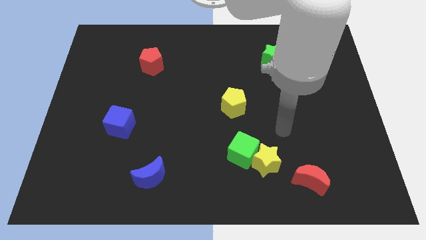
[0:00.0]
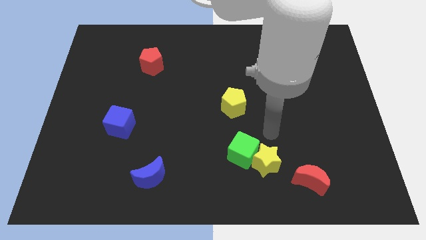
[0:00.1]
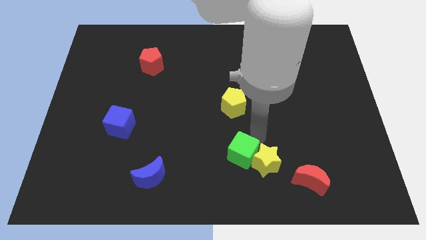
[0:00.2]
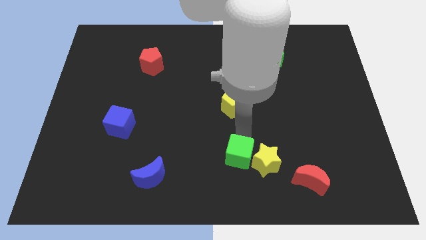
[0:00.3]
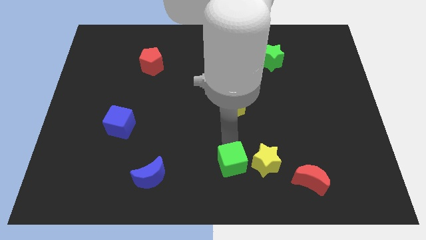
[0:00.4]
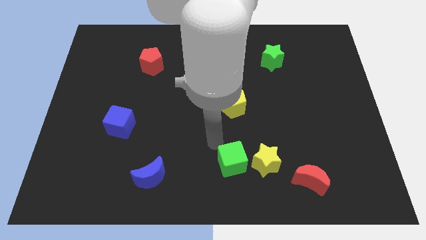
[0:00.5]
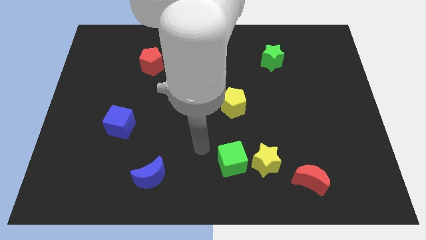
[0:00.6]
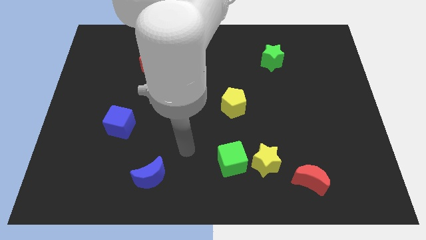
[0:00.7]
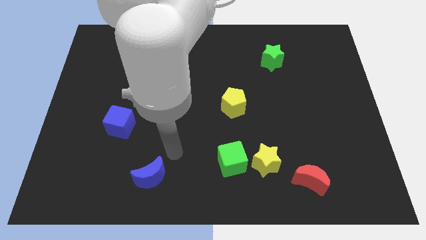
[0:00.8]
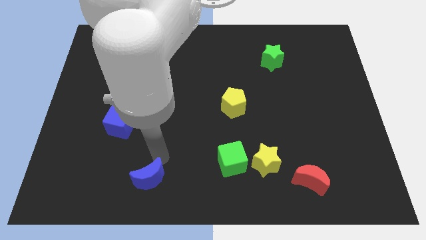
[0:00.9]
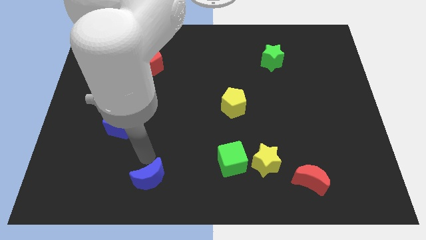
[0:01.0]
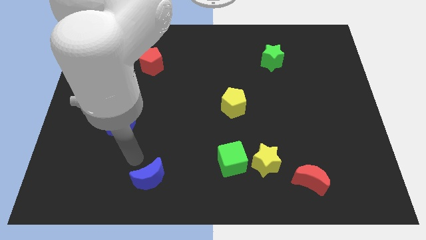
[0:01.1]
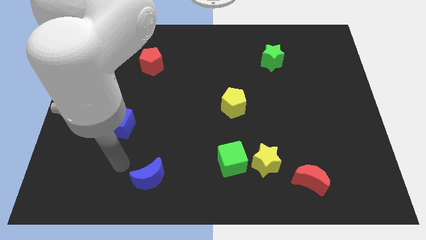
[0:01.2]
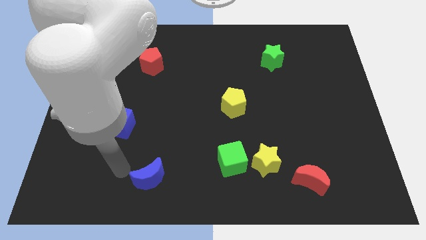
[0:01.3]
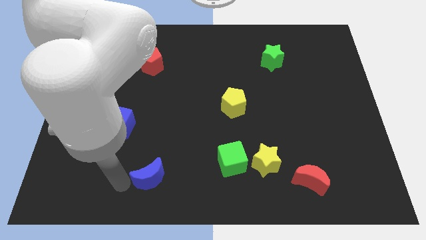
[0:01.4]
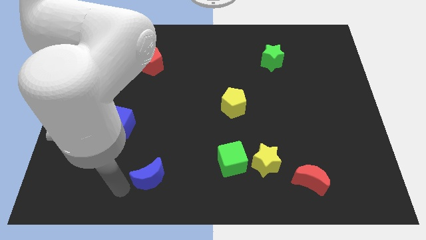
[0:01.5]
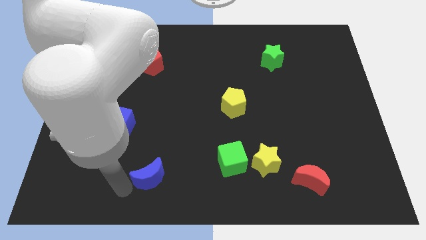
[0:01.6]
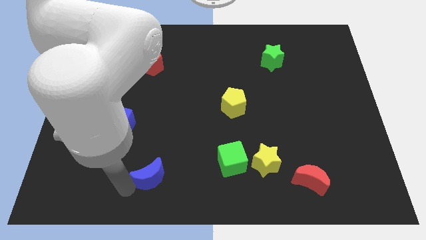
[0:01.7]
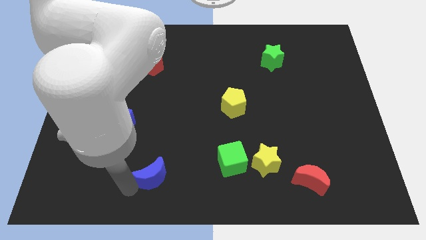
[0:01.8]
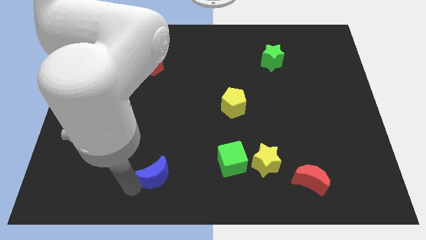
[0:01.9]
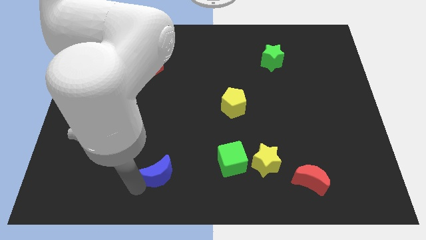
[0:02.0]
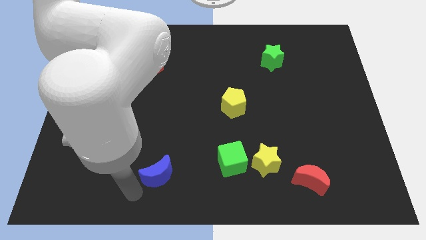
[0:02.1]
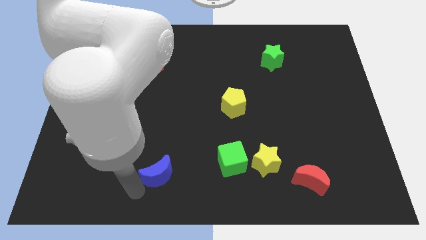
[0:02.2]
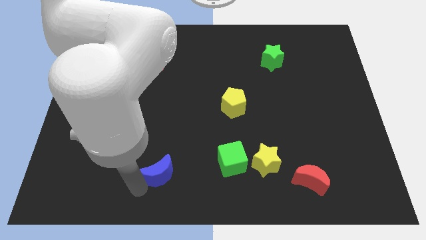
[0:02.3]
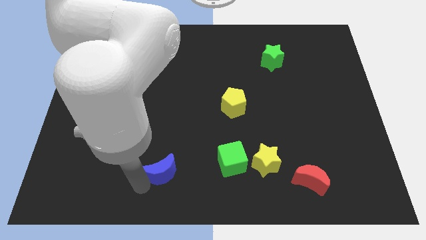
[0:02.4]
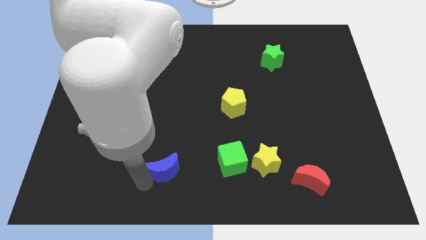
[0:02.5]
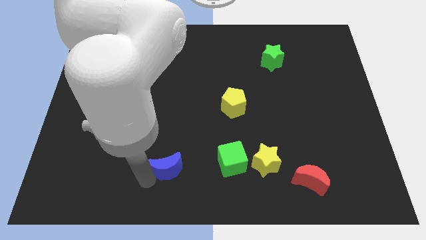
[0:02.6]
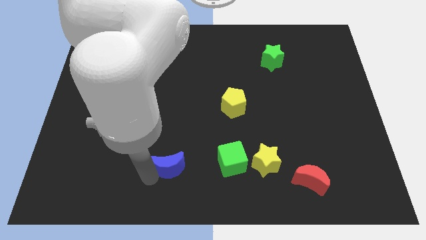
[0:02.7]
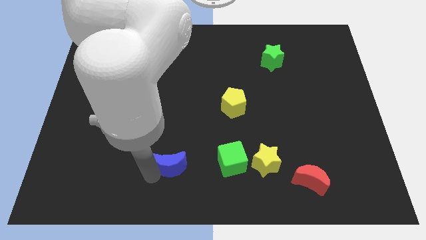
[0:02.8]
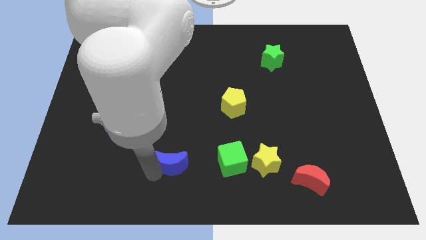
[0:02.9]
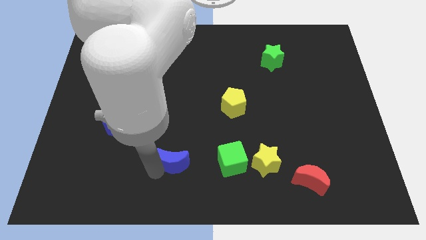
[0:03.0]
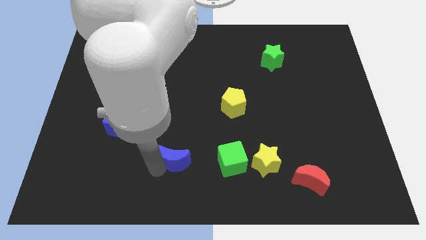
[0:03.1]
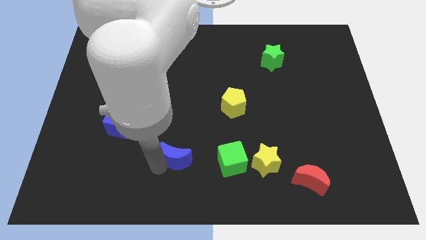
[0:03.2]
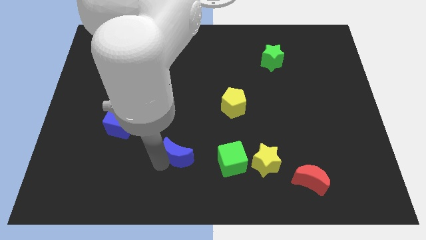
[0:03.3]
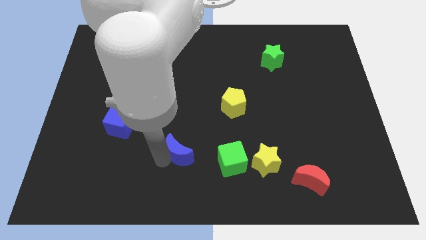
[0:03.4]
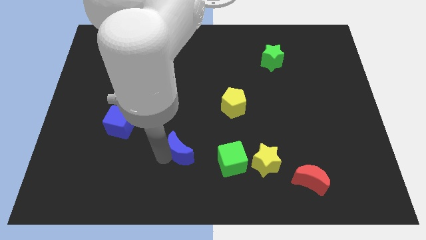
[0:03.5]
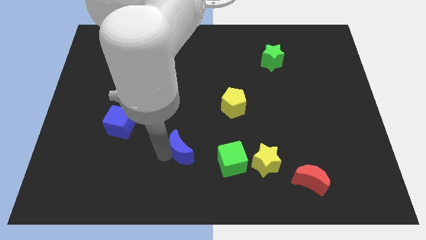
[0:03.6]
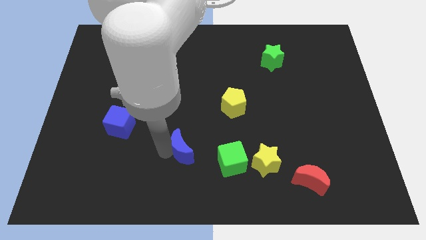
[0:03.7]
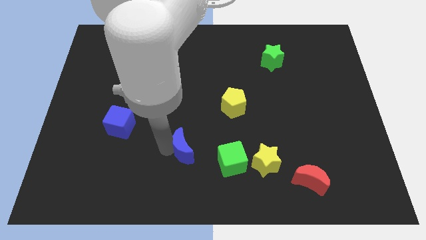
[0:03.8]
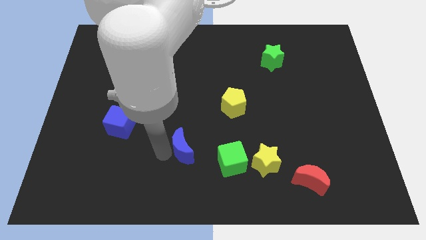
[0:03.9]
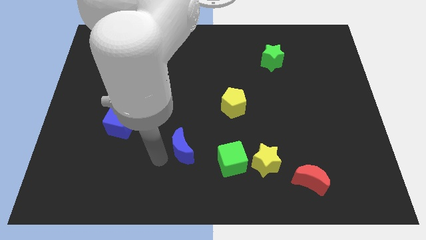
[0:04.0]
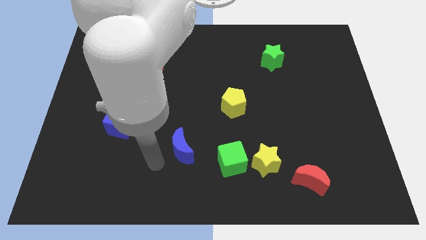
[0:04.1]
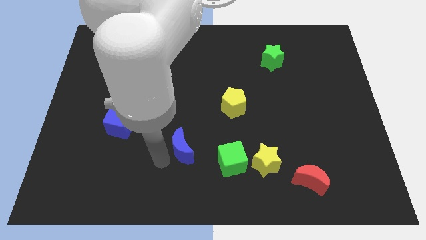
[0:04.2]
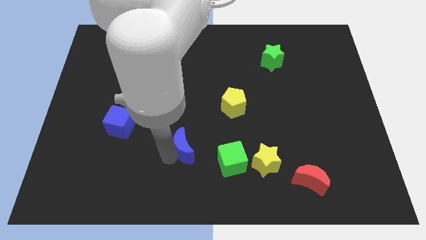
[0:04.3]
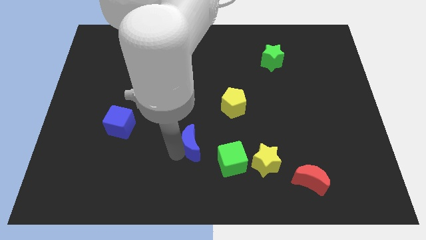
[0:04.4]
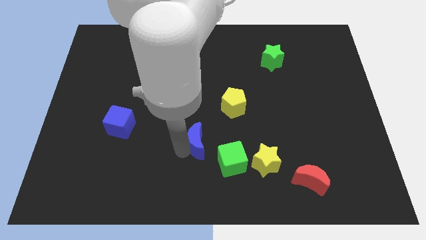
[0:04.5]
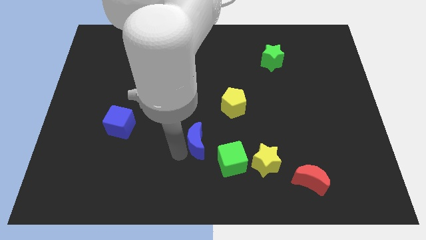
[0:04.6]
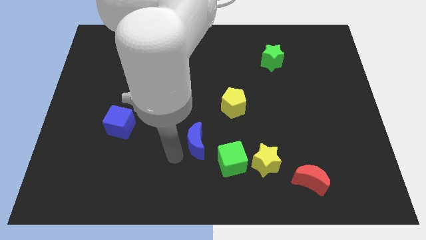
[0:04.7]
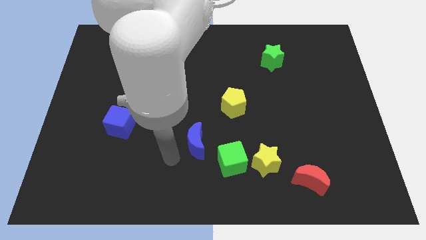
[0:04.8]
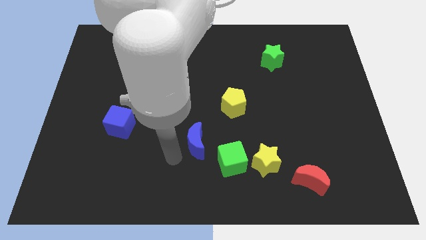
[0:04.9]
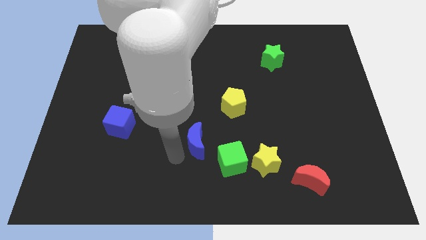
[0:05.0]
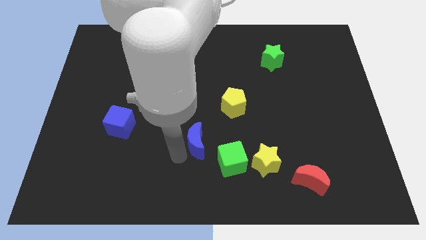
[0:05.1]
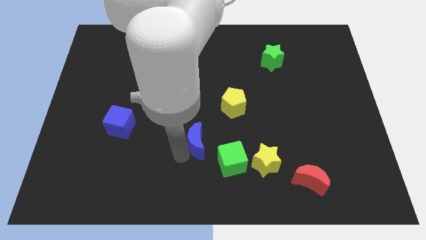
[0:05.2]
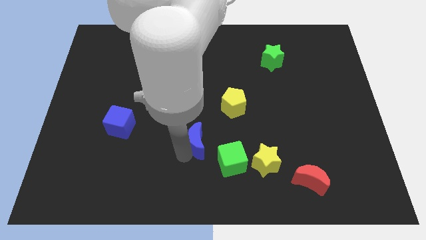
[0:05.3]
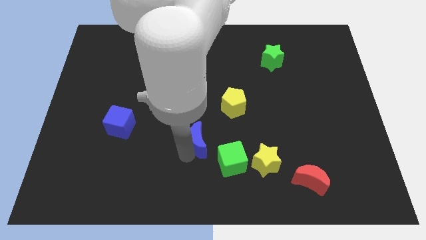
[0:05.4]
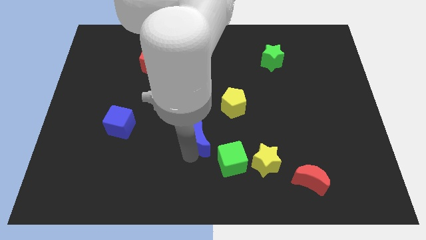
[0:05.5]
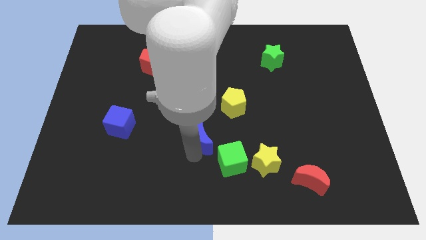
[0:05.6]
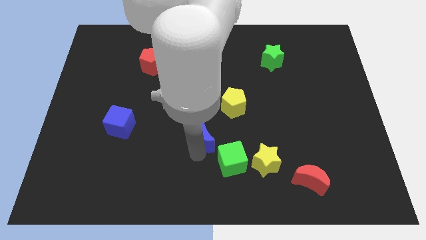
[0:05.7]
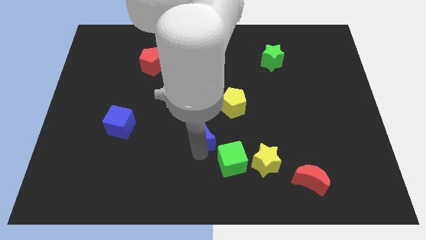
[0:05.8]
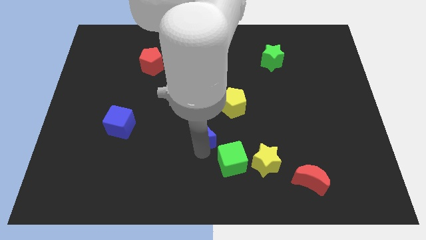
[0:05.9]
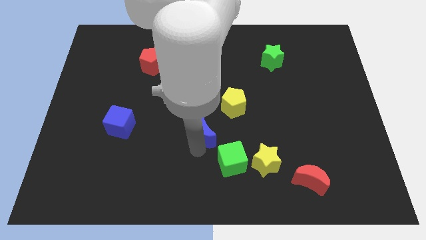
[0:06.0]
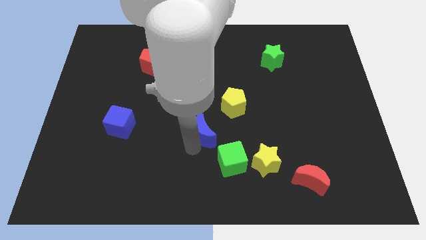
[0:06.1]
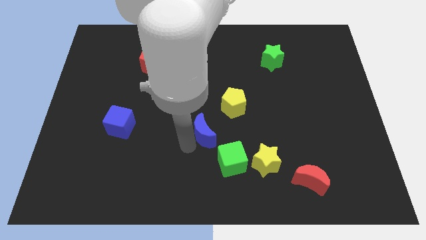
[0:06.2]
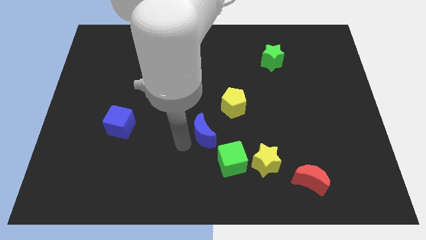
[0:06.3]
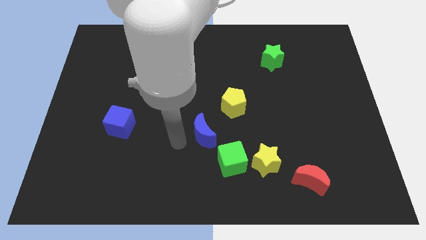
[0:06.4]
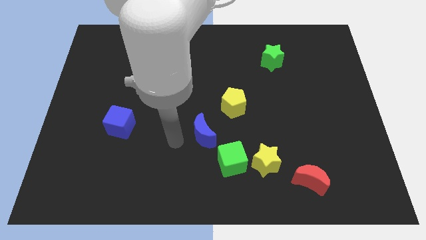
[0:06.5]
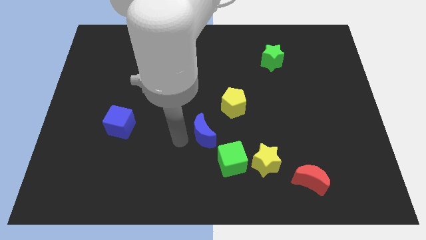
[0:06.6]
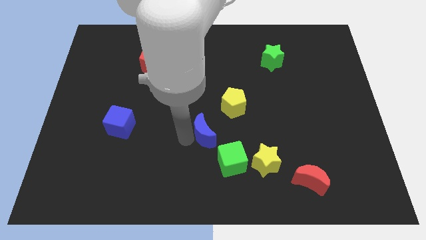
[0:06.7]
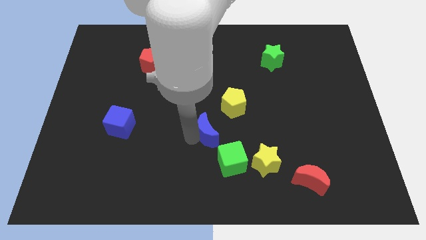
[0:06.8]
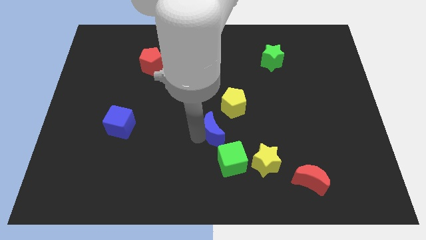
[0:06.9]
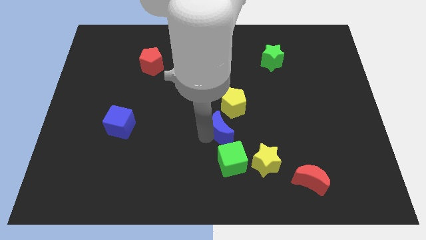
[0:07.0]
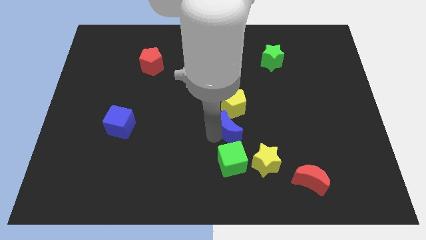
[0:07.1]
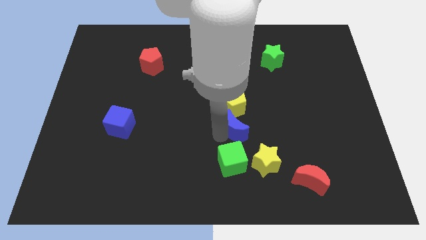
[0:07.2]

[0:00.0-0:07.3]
move the blue moon diagonally upwards and right

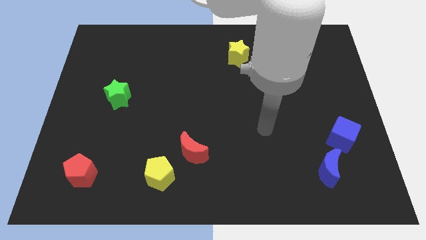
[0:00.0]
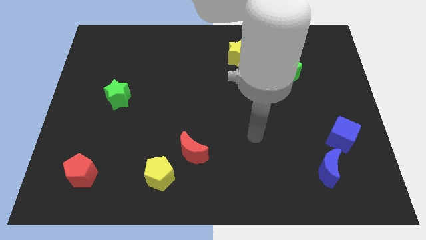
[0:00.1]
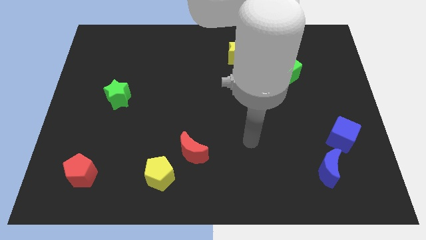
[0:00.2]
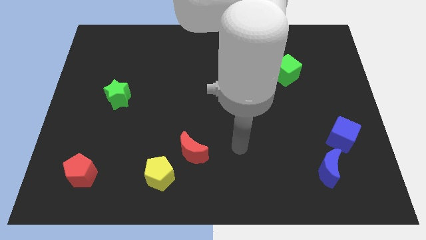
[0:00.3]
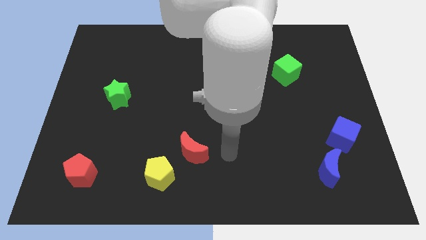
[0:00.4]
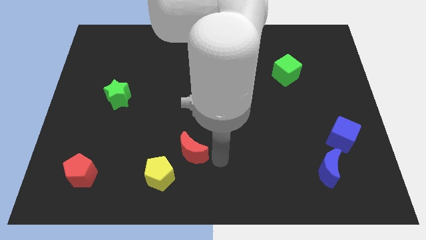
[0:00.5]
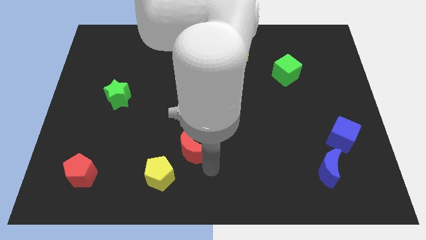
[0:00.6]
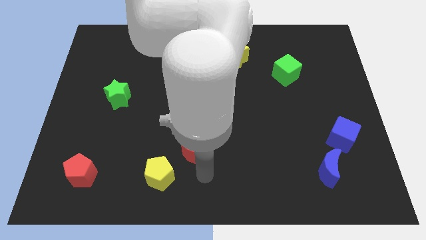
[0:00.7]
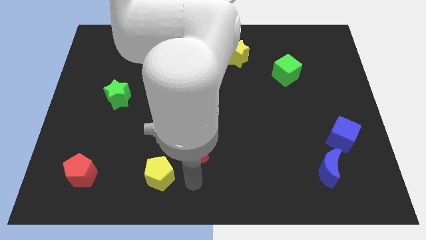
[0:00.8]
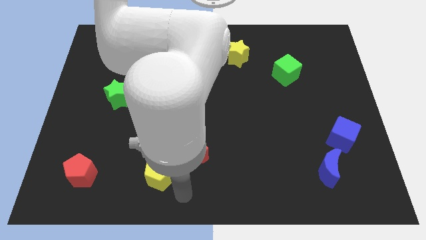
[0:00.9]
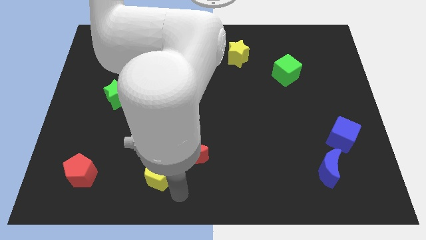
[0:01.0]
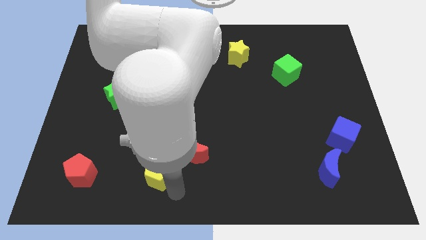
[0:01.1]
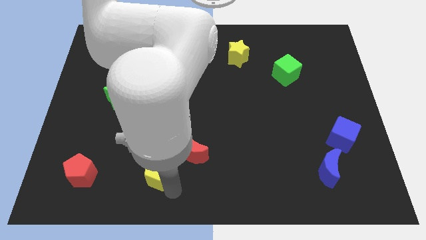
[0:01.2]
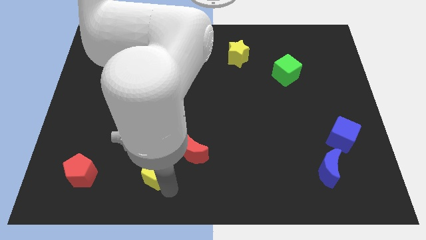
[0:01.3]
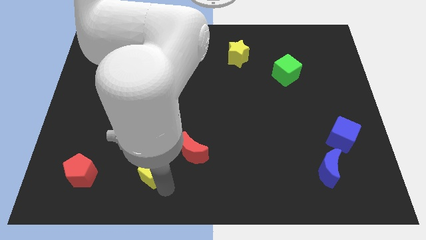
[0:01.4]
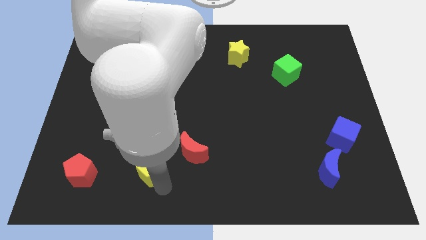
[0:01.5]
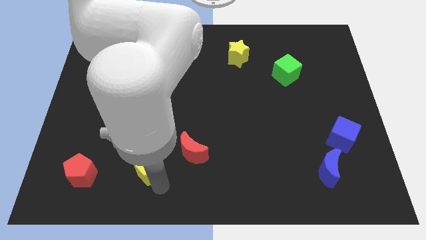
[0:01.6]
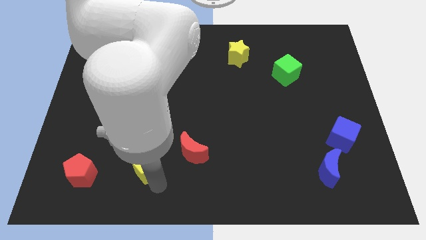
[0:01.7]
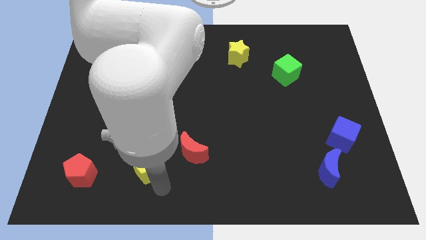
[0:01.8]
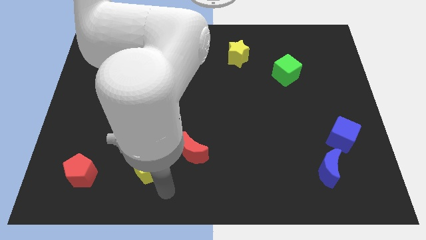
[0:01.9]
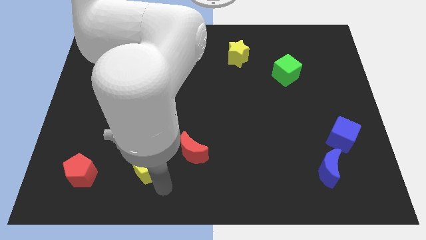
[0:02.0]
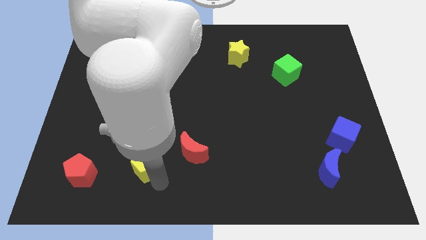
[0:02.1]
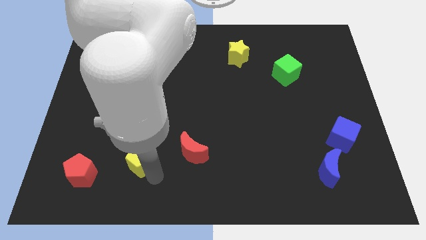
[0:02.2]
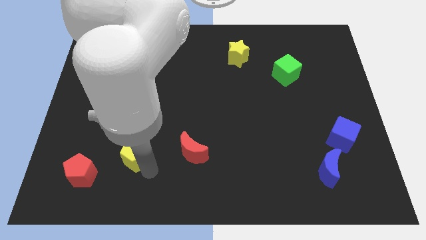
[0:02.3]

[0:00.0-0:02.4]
move the yellow pentagon upwards and to the left somewhat
